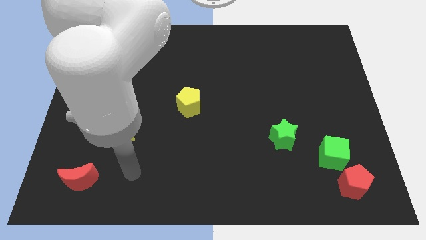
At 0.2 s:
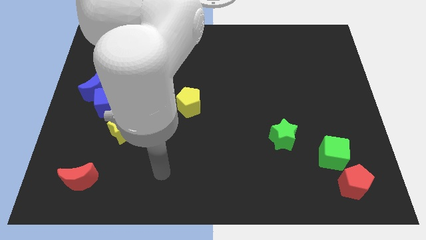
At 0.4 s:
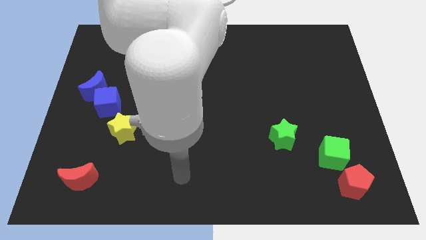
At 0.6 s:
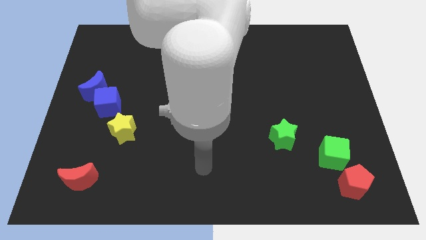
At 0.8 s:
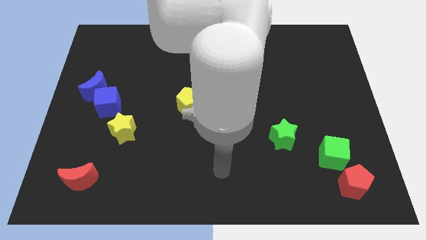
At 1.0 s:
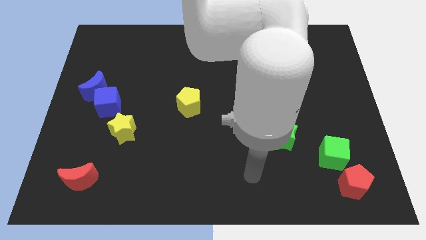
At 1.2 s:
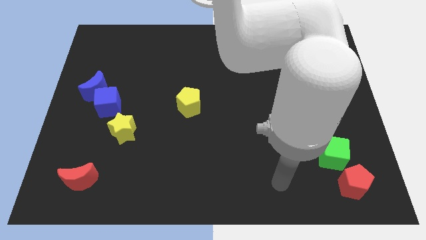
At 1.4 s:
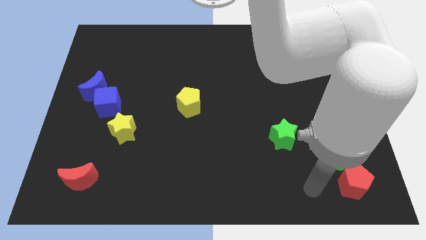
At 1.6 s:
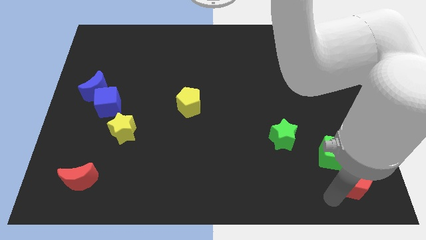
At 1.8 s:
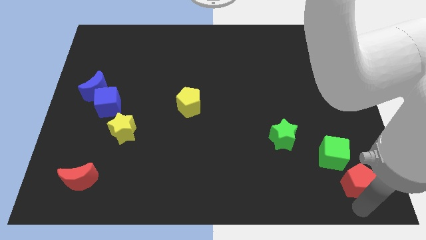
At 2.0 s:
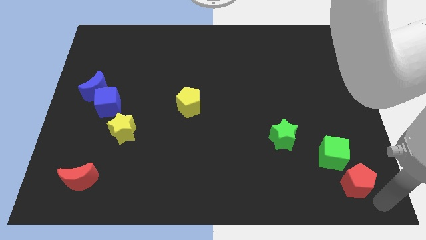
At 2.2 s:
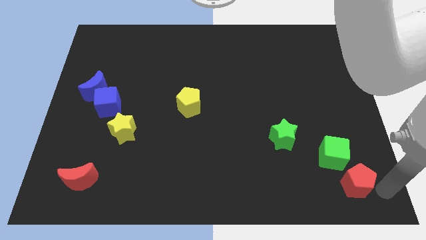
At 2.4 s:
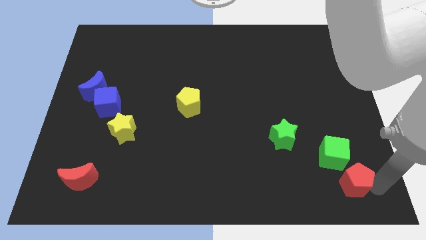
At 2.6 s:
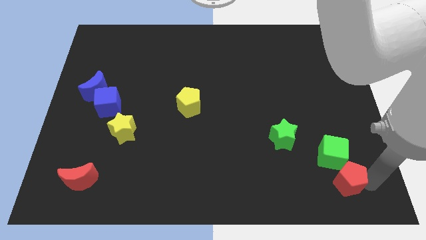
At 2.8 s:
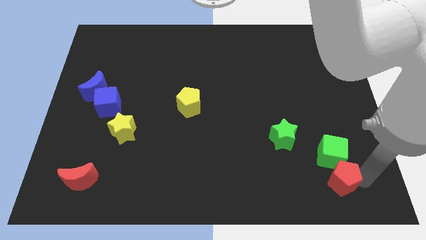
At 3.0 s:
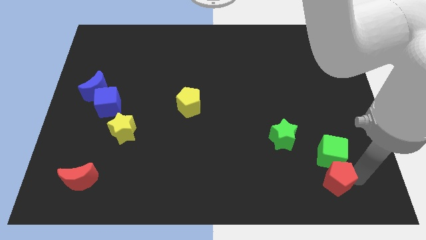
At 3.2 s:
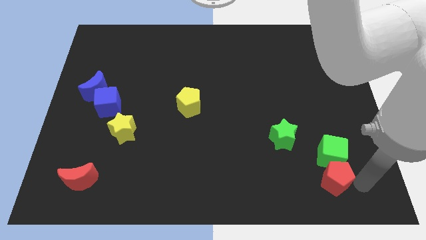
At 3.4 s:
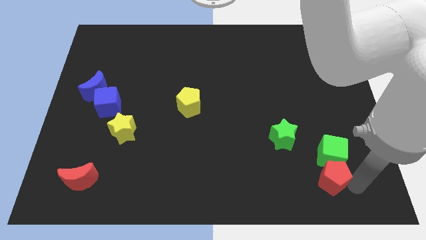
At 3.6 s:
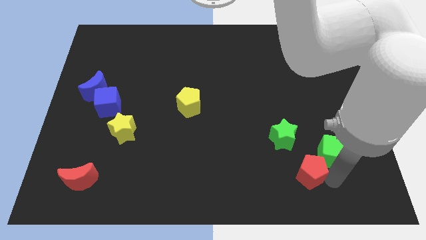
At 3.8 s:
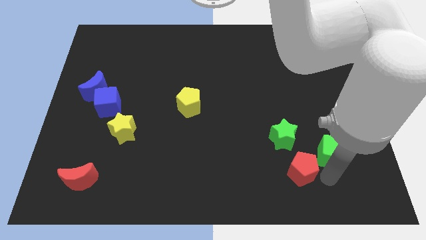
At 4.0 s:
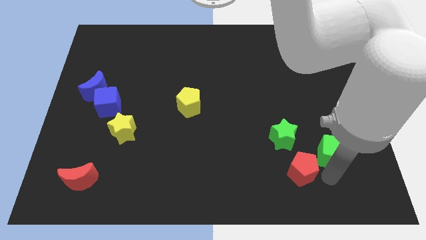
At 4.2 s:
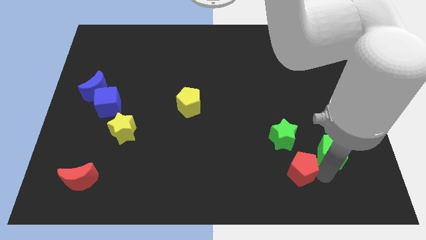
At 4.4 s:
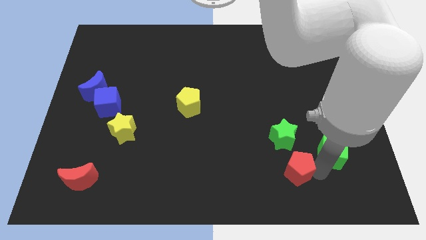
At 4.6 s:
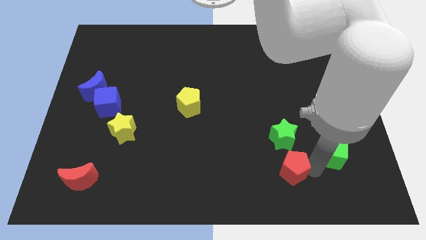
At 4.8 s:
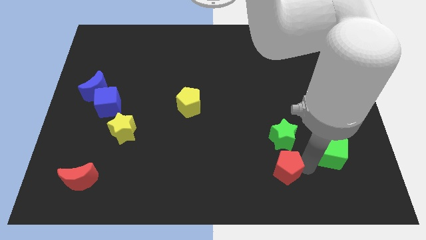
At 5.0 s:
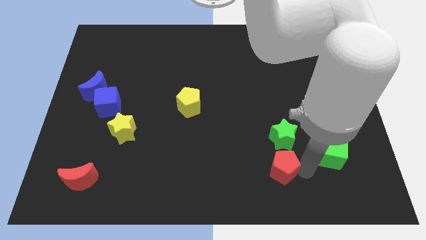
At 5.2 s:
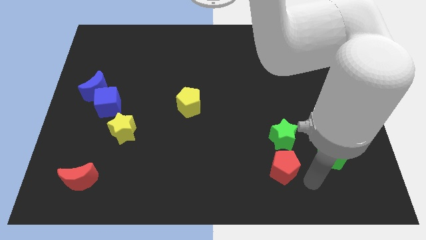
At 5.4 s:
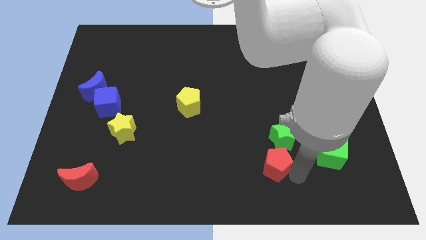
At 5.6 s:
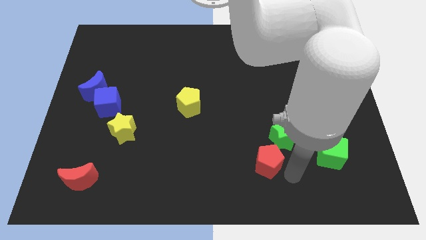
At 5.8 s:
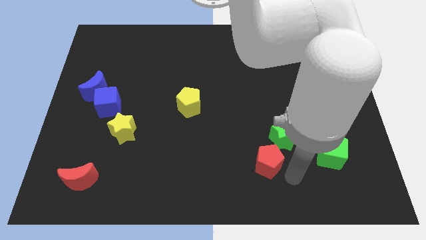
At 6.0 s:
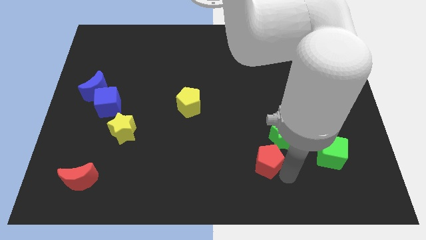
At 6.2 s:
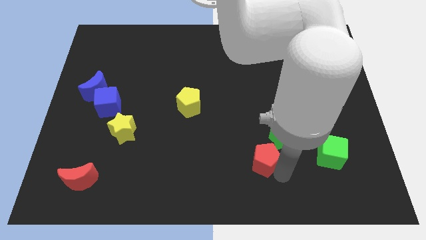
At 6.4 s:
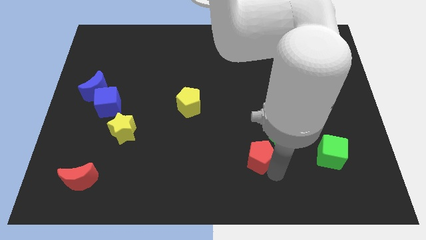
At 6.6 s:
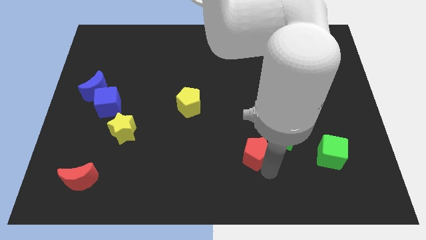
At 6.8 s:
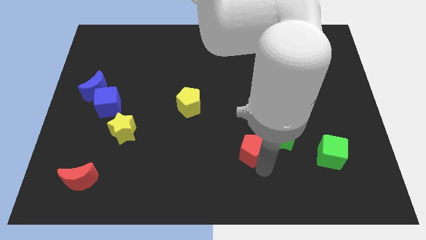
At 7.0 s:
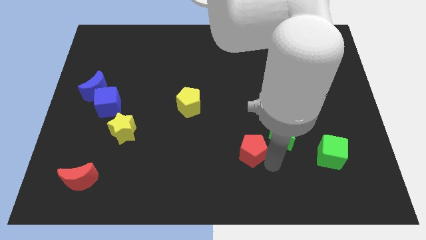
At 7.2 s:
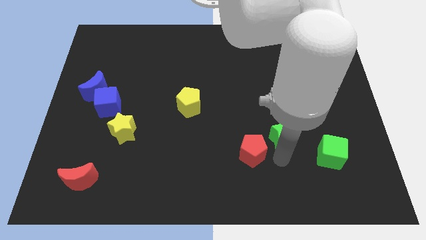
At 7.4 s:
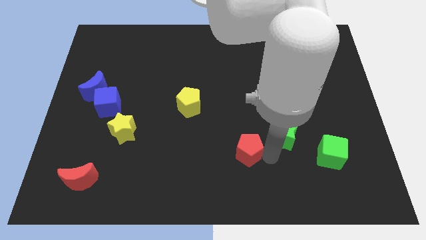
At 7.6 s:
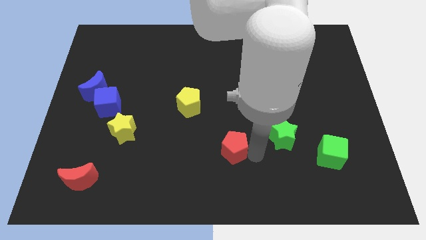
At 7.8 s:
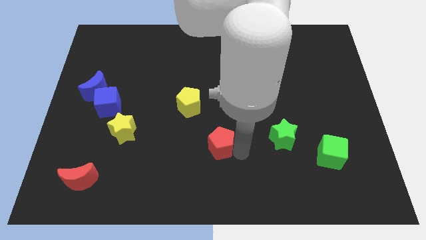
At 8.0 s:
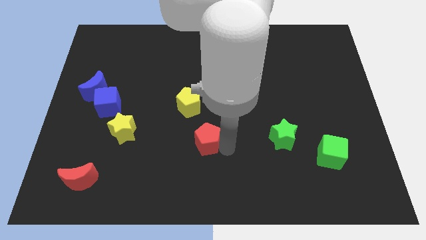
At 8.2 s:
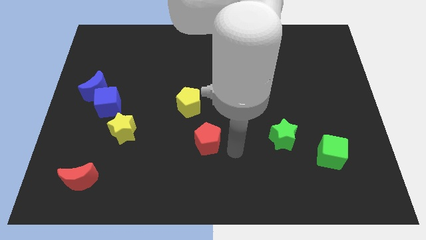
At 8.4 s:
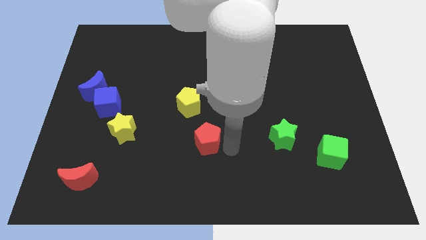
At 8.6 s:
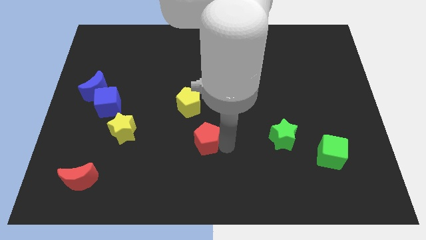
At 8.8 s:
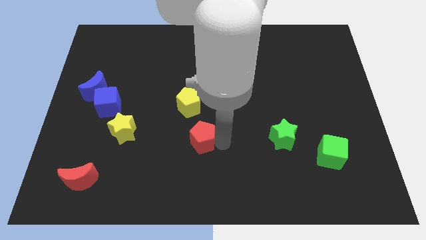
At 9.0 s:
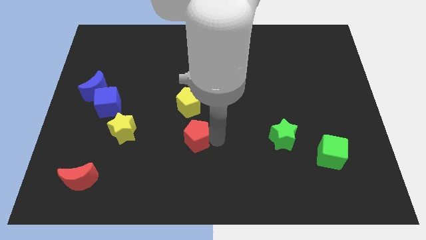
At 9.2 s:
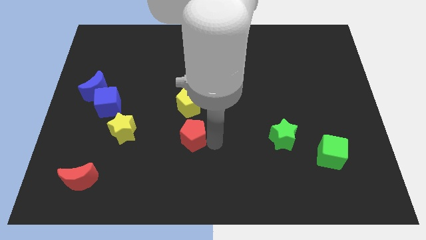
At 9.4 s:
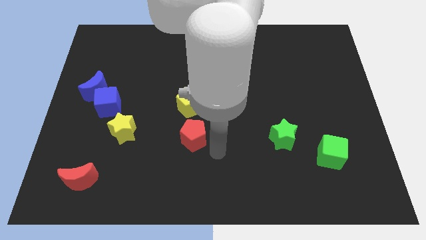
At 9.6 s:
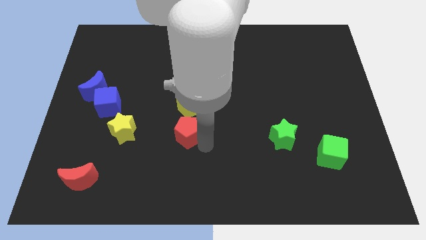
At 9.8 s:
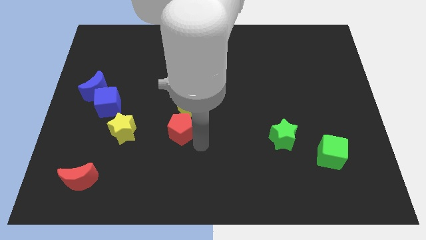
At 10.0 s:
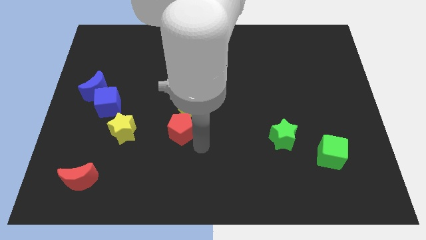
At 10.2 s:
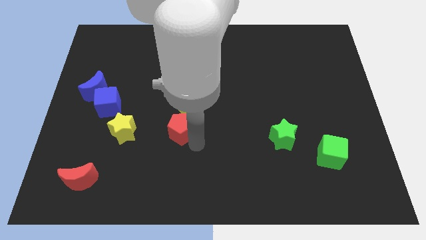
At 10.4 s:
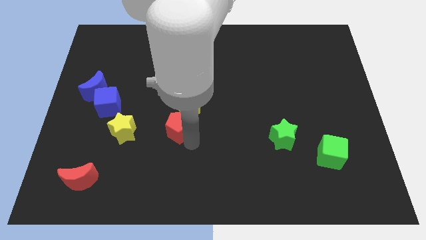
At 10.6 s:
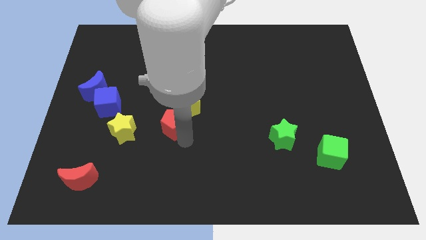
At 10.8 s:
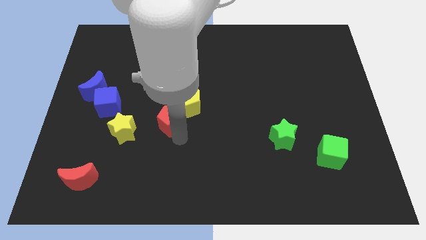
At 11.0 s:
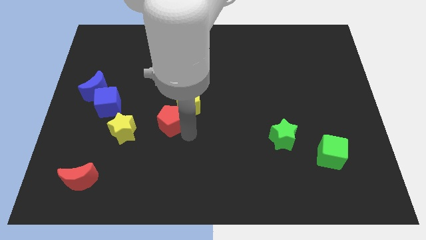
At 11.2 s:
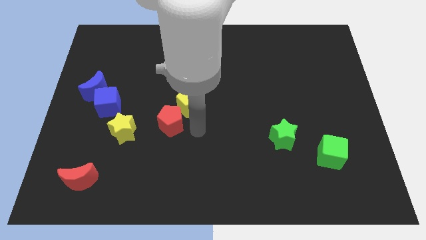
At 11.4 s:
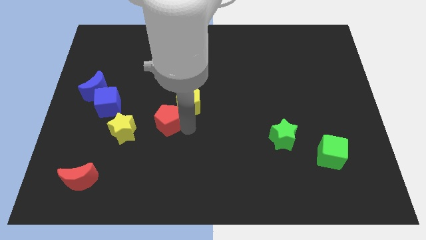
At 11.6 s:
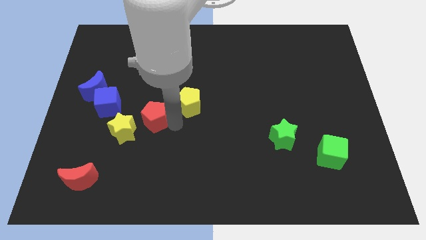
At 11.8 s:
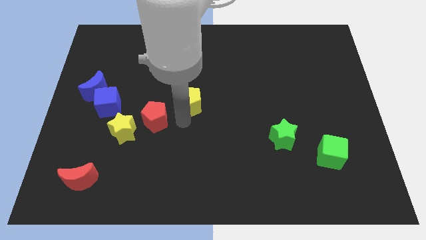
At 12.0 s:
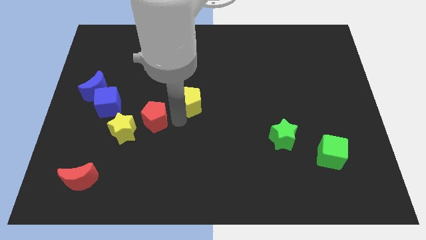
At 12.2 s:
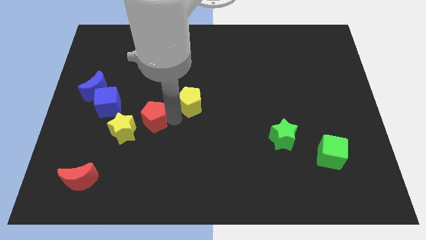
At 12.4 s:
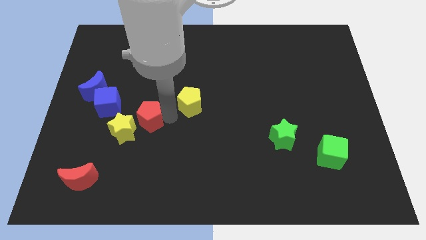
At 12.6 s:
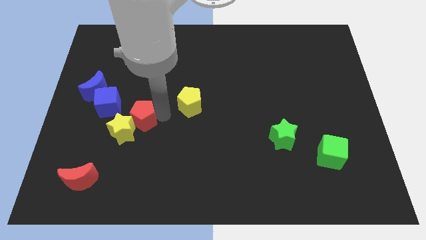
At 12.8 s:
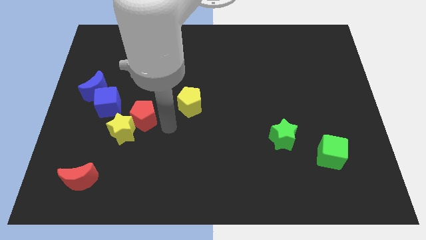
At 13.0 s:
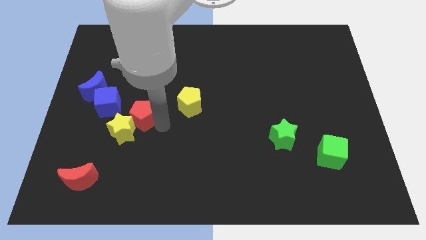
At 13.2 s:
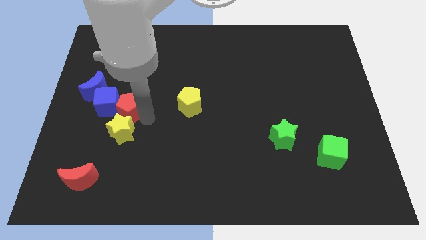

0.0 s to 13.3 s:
slide the red pentagon to the blue cube

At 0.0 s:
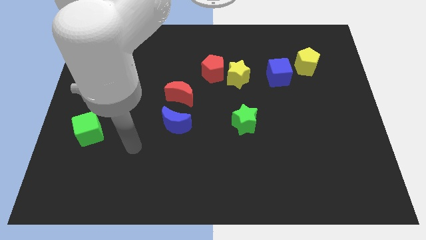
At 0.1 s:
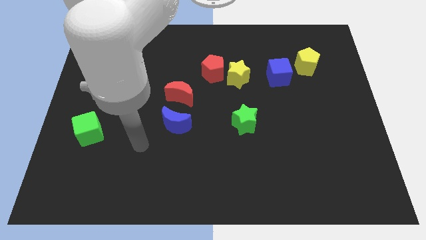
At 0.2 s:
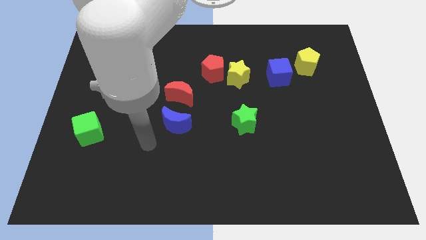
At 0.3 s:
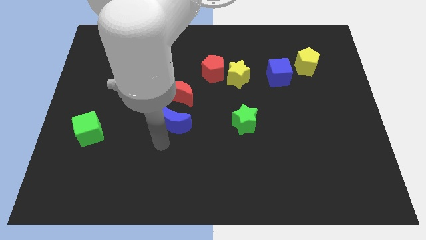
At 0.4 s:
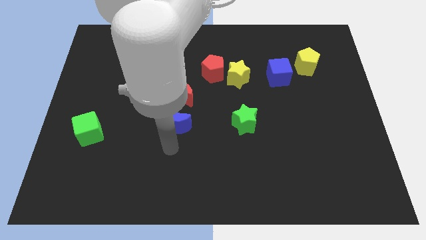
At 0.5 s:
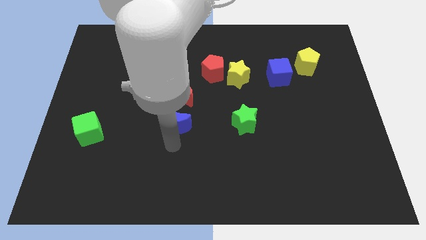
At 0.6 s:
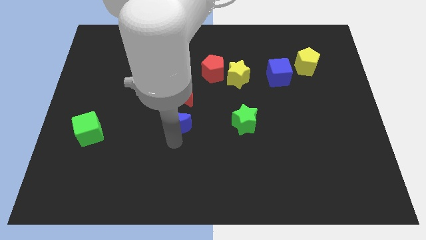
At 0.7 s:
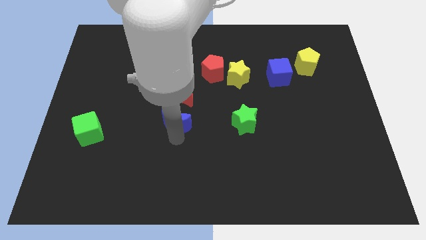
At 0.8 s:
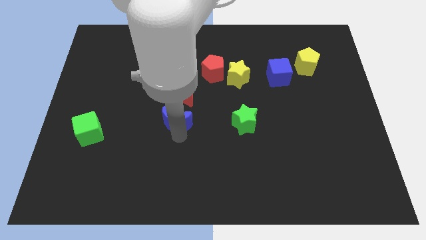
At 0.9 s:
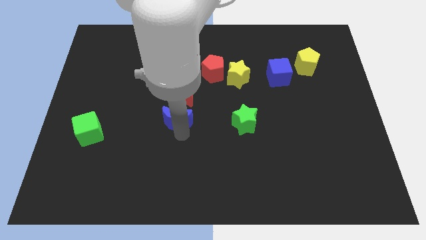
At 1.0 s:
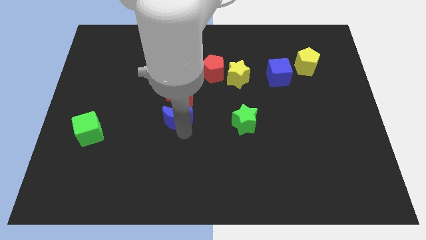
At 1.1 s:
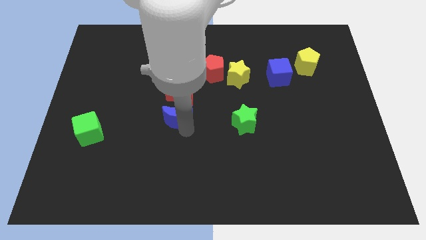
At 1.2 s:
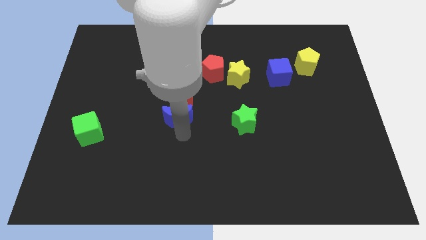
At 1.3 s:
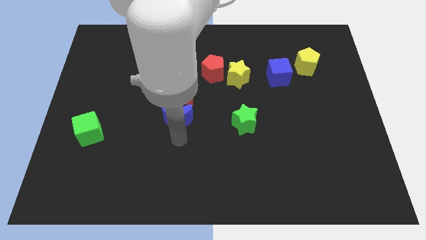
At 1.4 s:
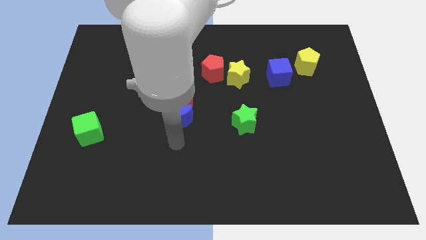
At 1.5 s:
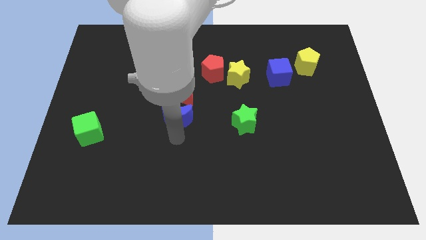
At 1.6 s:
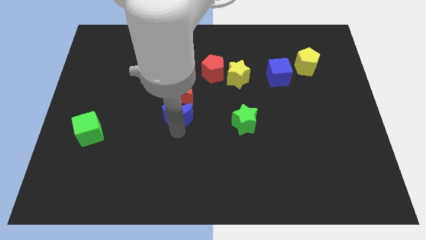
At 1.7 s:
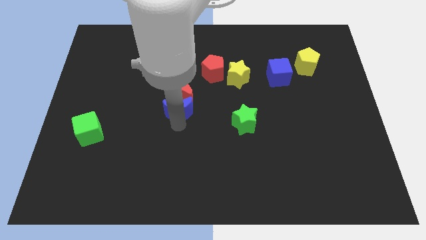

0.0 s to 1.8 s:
push the blue moon to the red moon

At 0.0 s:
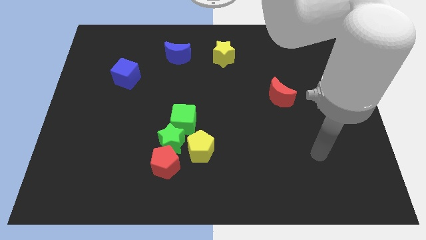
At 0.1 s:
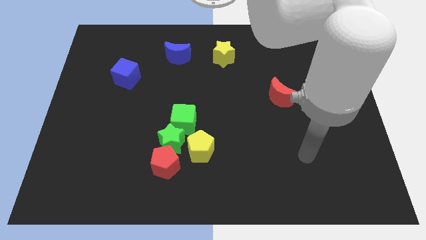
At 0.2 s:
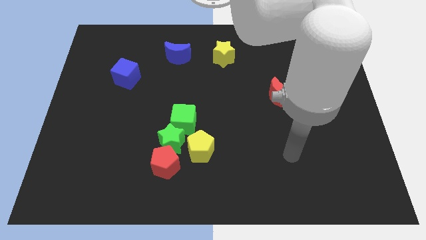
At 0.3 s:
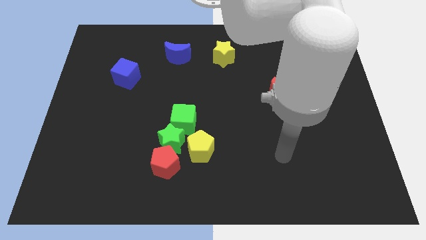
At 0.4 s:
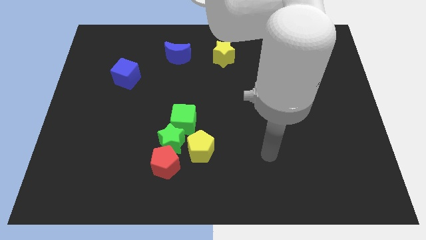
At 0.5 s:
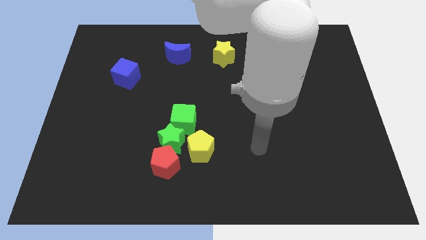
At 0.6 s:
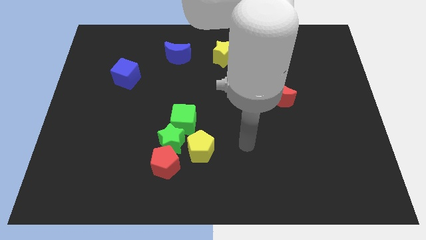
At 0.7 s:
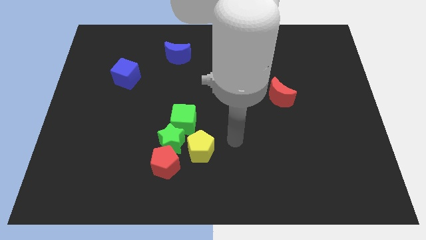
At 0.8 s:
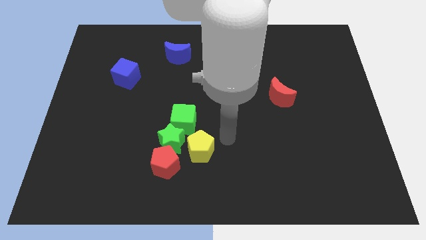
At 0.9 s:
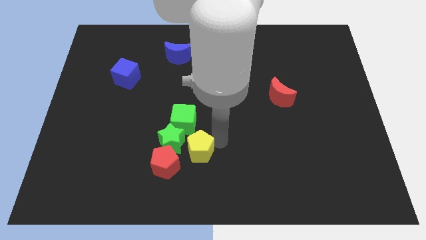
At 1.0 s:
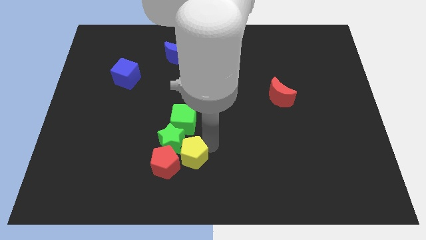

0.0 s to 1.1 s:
put the yellow pentagon close to the red pentagon
